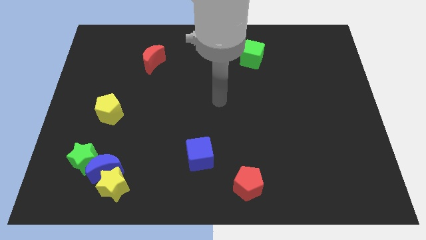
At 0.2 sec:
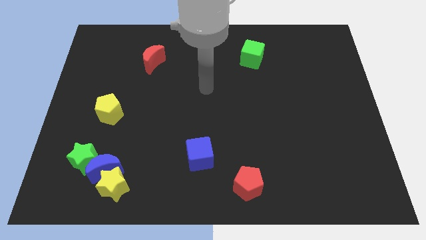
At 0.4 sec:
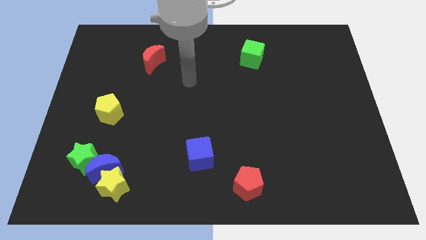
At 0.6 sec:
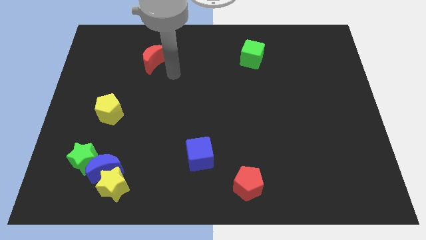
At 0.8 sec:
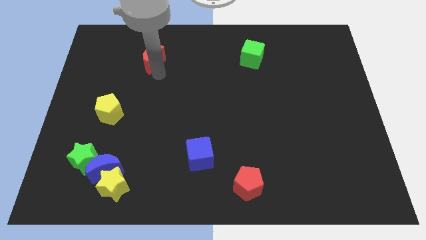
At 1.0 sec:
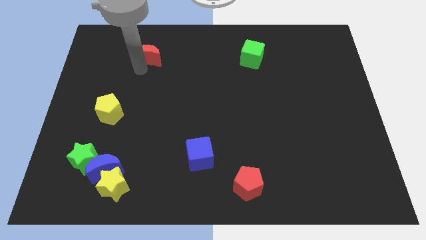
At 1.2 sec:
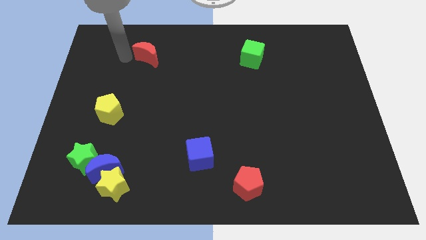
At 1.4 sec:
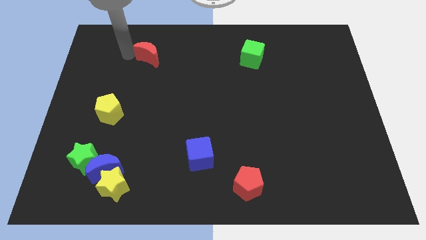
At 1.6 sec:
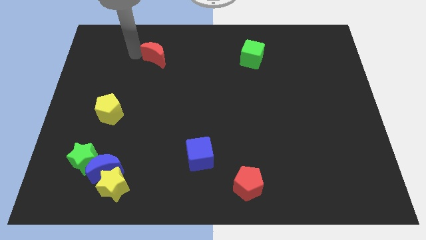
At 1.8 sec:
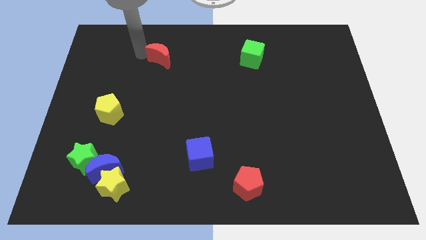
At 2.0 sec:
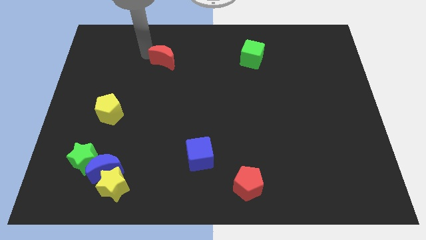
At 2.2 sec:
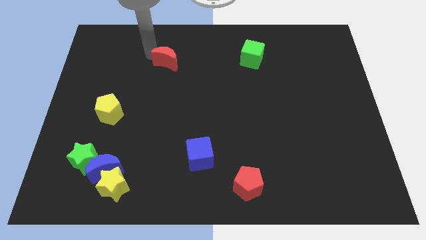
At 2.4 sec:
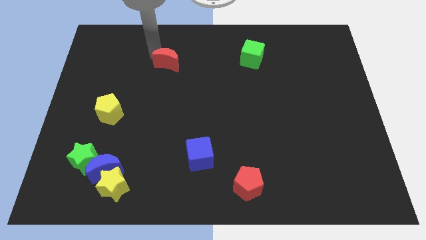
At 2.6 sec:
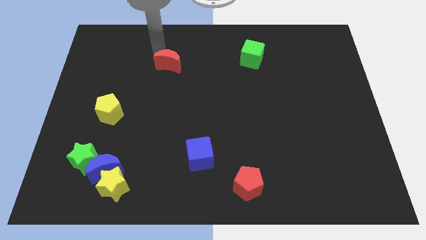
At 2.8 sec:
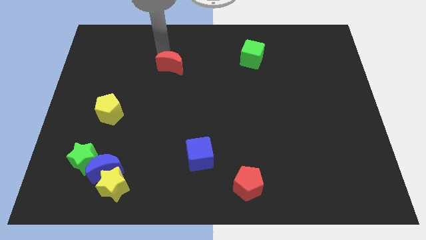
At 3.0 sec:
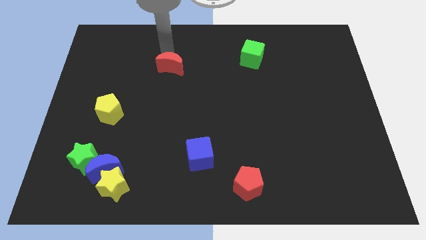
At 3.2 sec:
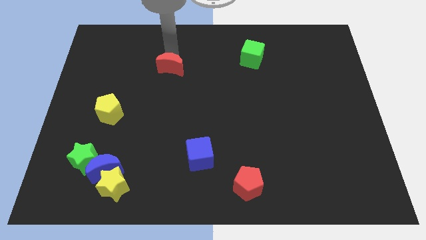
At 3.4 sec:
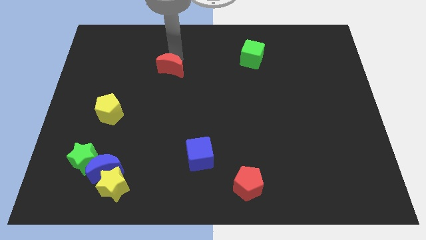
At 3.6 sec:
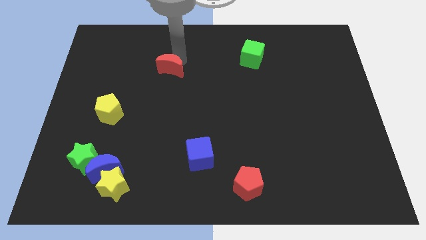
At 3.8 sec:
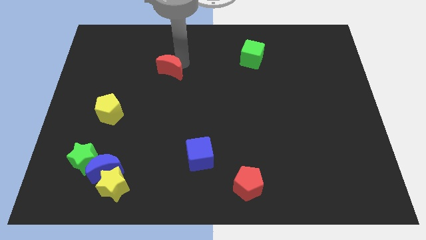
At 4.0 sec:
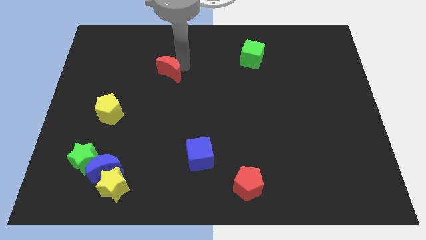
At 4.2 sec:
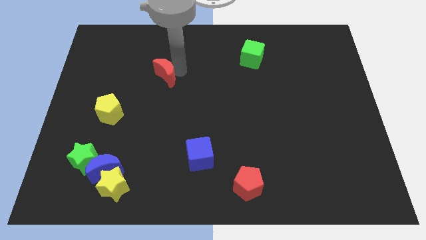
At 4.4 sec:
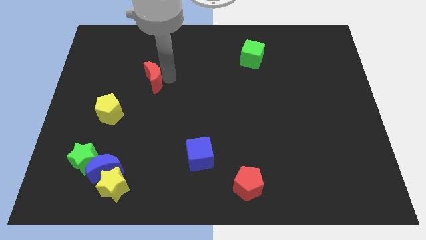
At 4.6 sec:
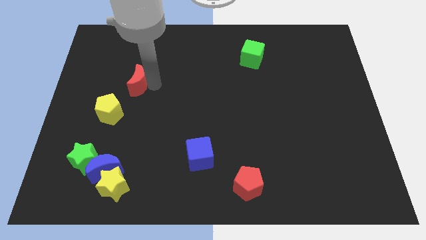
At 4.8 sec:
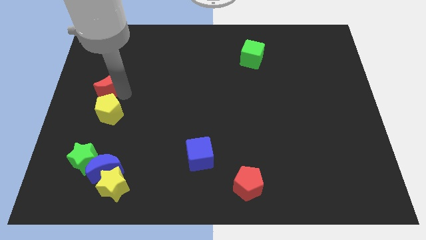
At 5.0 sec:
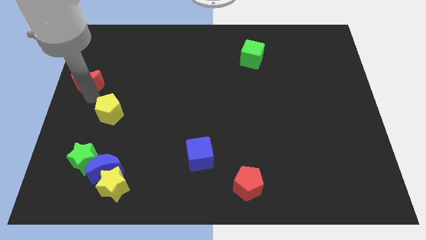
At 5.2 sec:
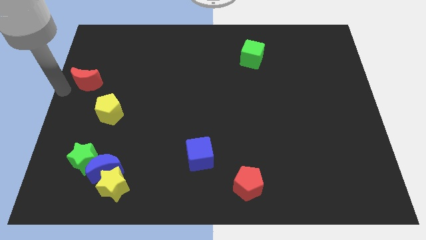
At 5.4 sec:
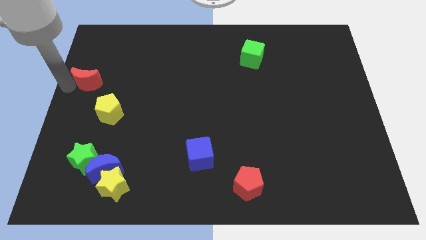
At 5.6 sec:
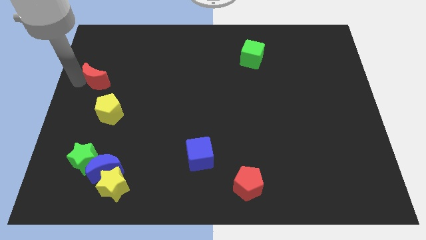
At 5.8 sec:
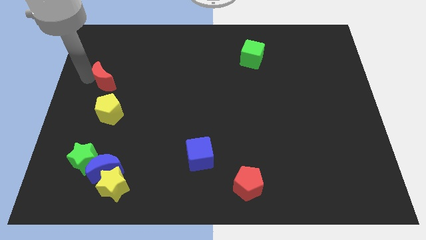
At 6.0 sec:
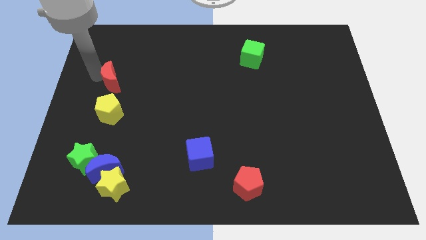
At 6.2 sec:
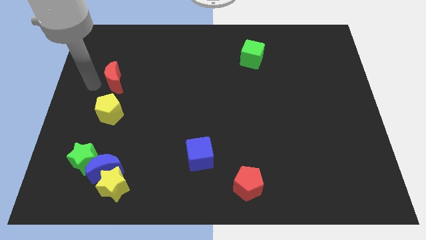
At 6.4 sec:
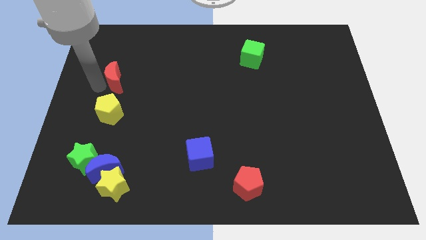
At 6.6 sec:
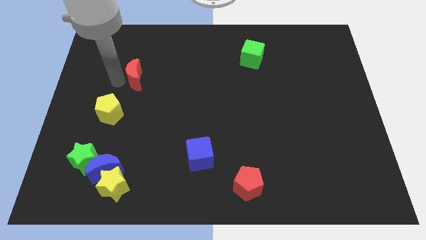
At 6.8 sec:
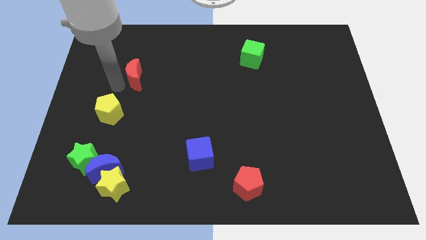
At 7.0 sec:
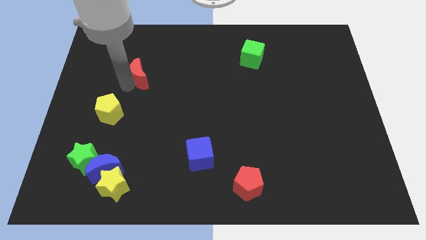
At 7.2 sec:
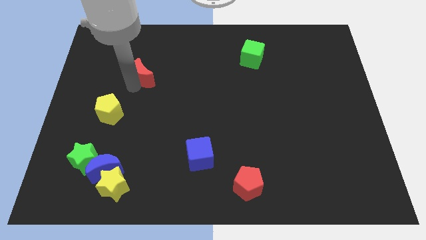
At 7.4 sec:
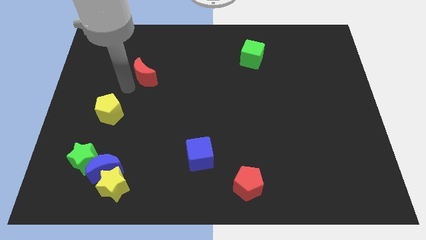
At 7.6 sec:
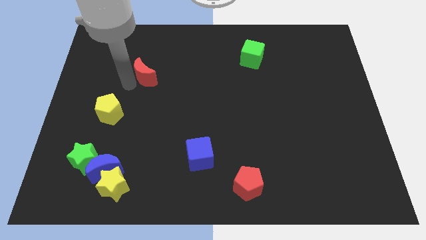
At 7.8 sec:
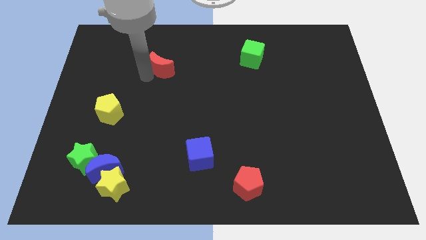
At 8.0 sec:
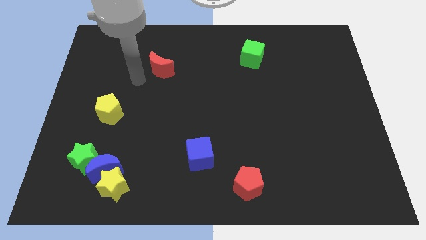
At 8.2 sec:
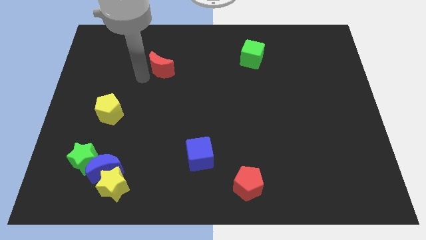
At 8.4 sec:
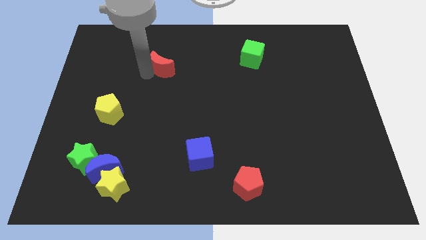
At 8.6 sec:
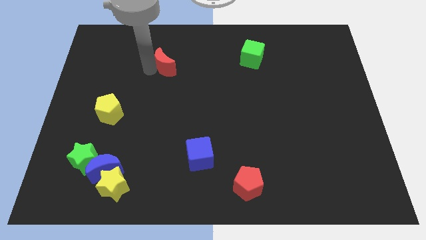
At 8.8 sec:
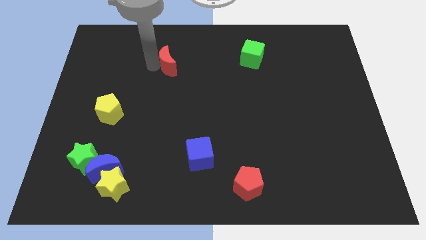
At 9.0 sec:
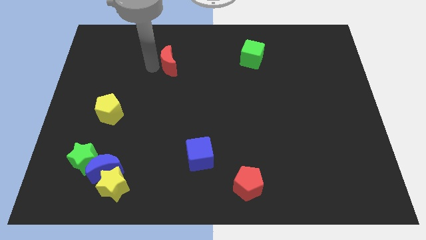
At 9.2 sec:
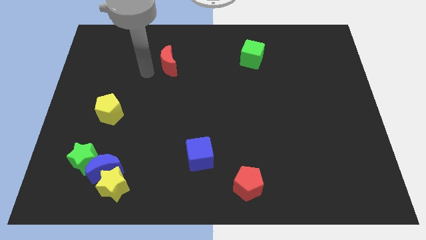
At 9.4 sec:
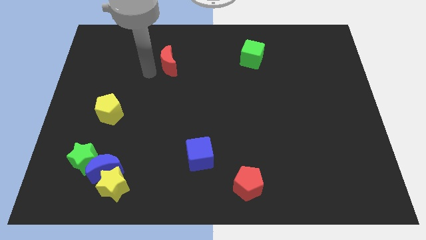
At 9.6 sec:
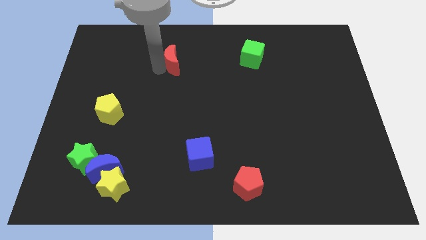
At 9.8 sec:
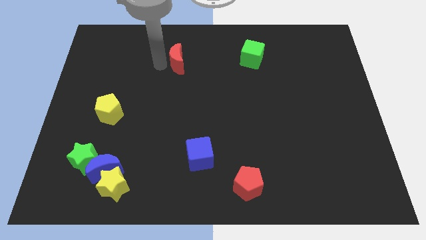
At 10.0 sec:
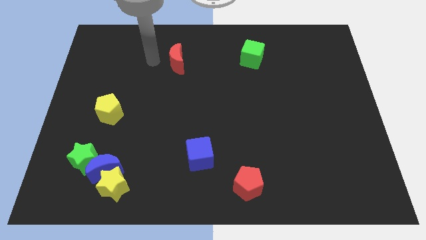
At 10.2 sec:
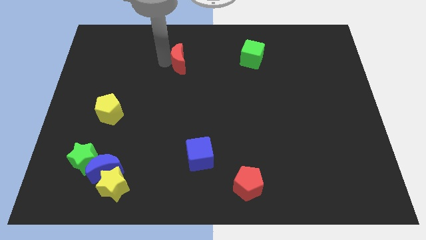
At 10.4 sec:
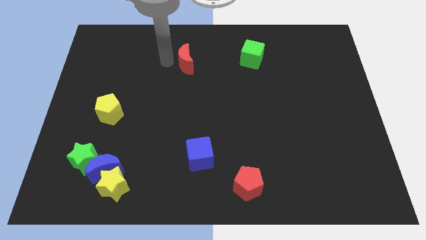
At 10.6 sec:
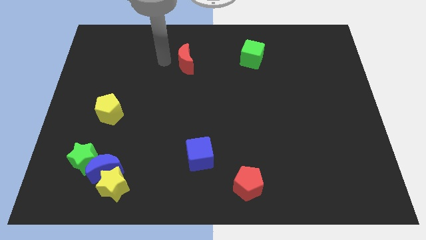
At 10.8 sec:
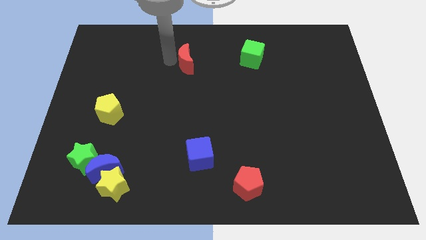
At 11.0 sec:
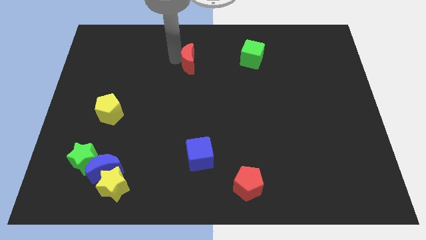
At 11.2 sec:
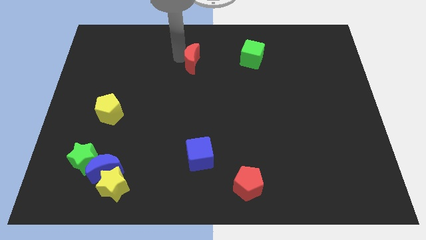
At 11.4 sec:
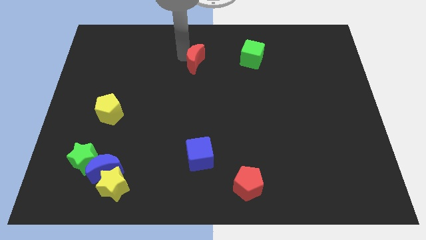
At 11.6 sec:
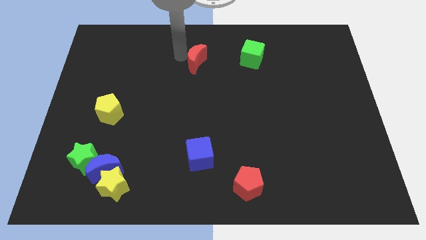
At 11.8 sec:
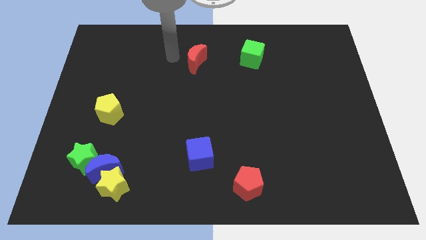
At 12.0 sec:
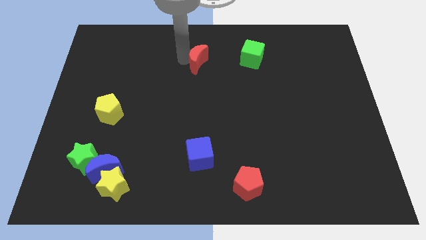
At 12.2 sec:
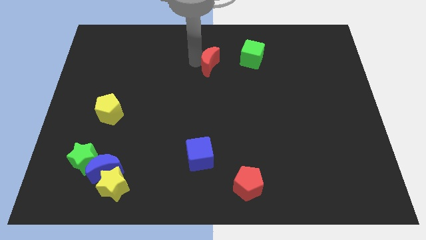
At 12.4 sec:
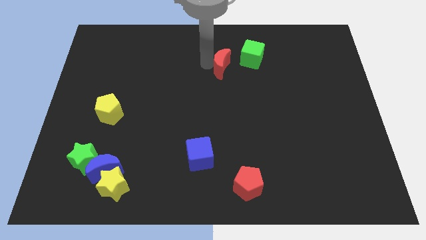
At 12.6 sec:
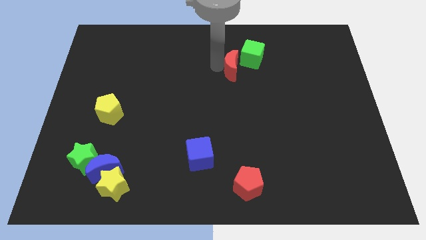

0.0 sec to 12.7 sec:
move the red moon to the right

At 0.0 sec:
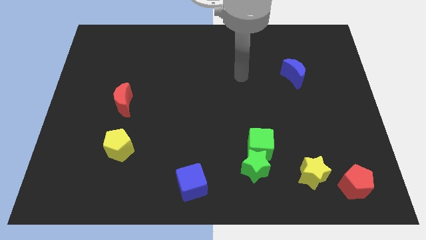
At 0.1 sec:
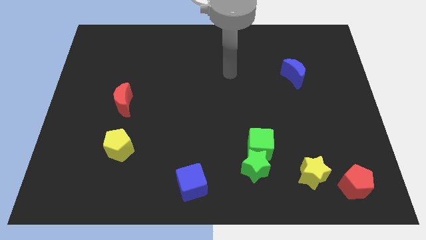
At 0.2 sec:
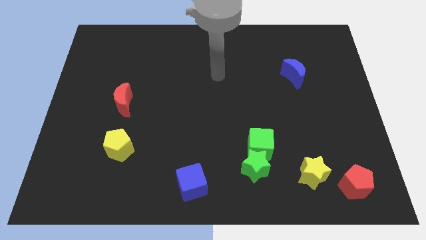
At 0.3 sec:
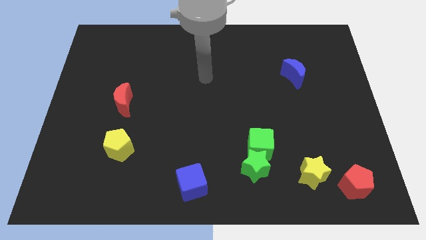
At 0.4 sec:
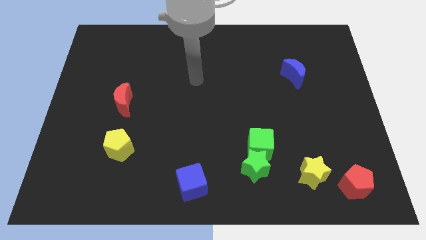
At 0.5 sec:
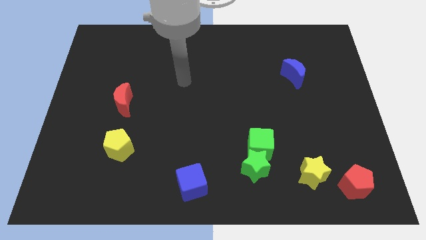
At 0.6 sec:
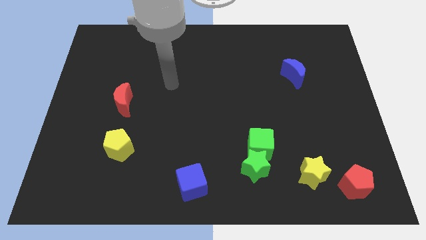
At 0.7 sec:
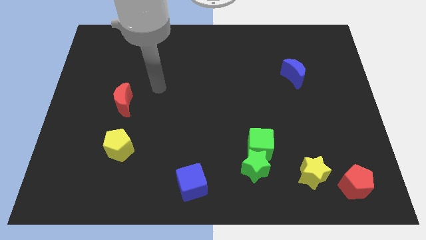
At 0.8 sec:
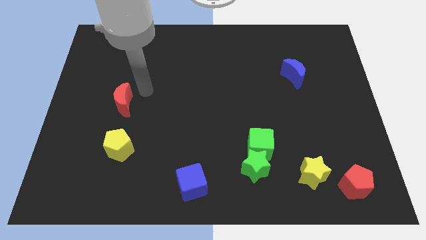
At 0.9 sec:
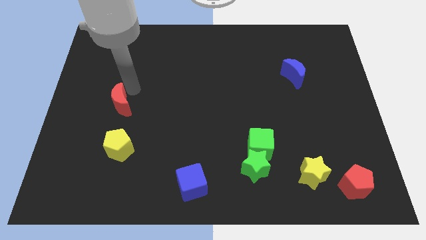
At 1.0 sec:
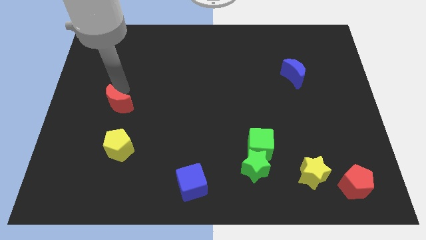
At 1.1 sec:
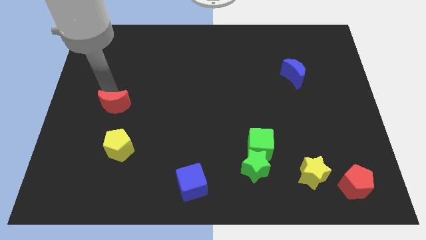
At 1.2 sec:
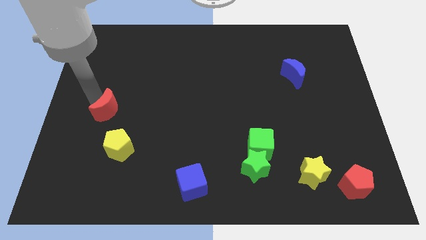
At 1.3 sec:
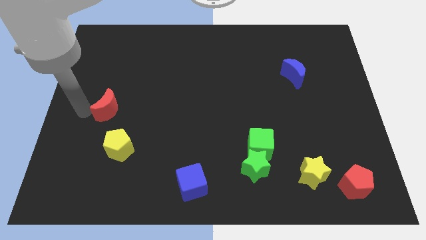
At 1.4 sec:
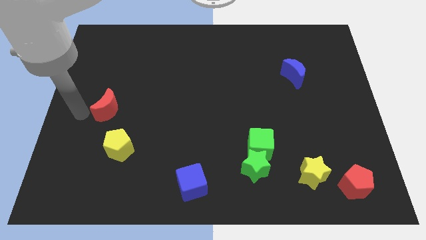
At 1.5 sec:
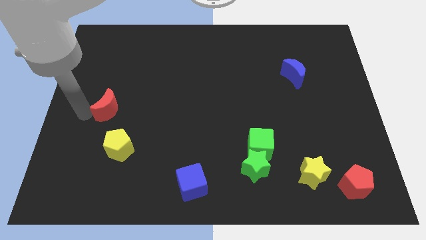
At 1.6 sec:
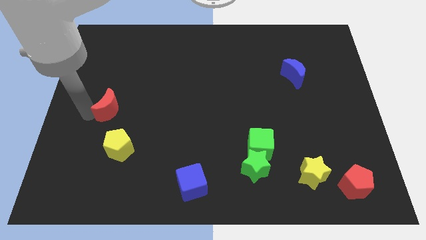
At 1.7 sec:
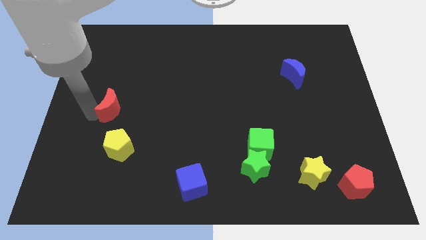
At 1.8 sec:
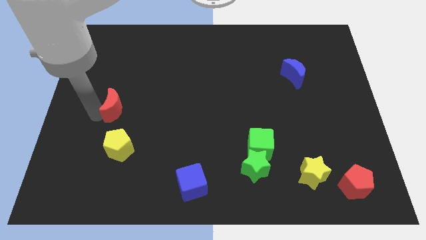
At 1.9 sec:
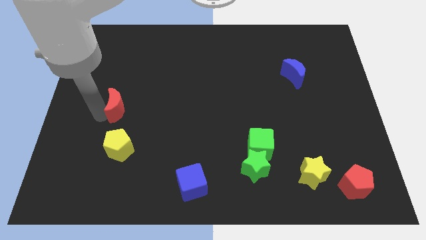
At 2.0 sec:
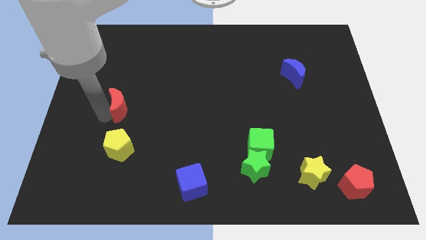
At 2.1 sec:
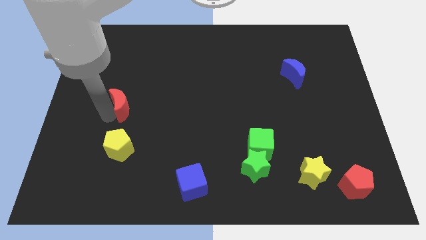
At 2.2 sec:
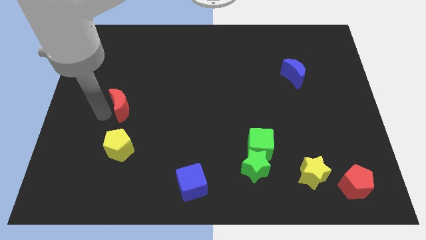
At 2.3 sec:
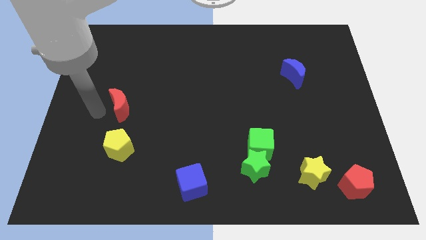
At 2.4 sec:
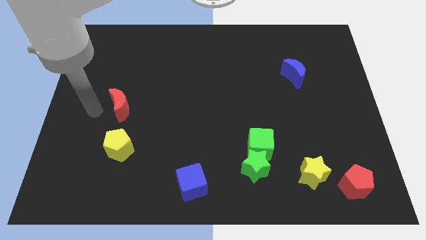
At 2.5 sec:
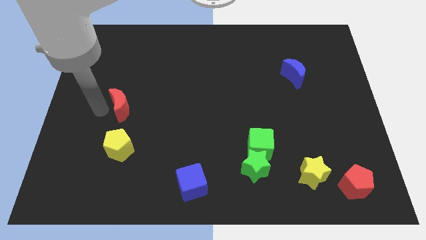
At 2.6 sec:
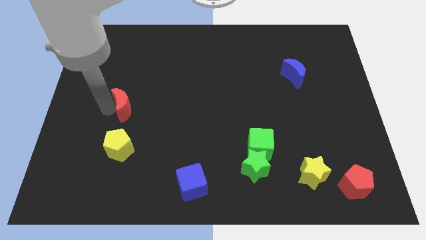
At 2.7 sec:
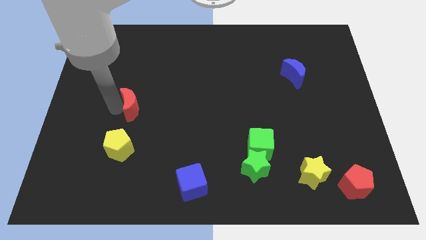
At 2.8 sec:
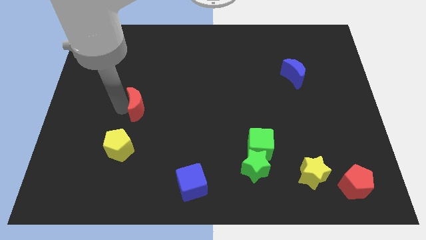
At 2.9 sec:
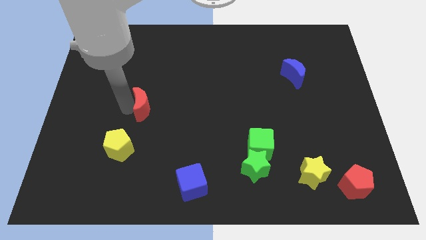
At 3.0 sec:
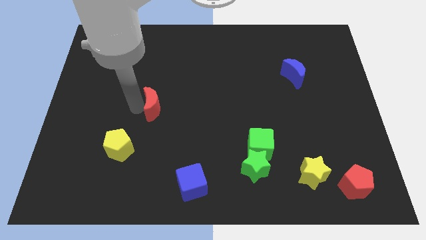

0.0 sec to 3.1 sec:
push the red moon to the right slightly
